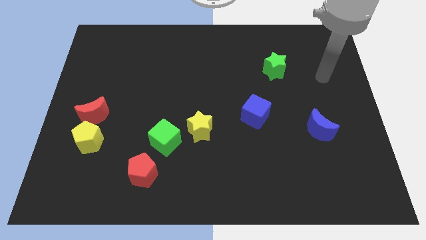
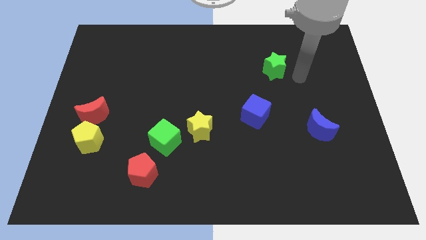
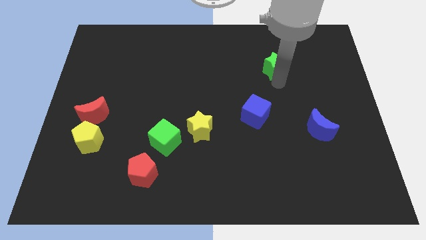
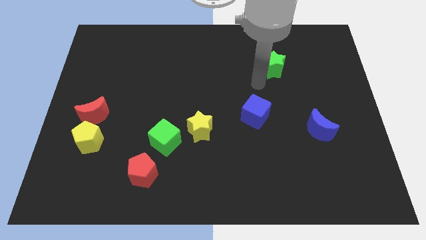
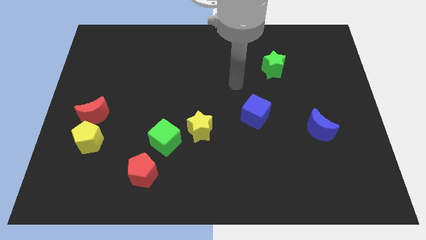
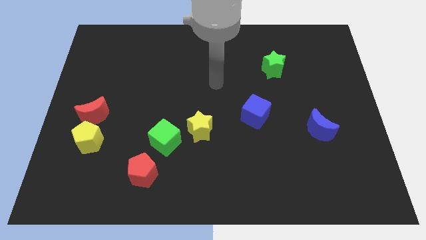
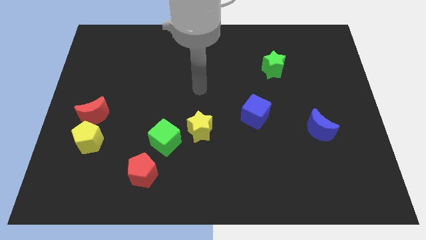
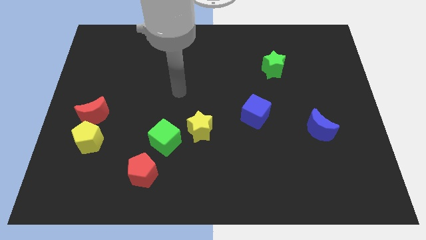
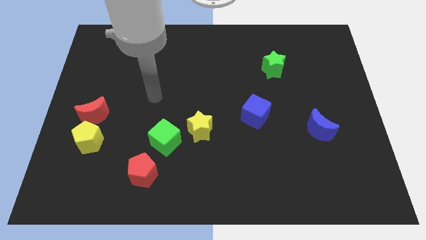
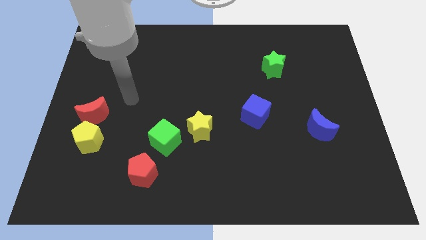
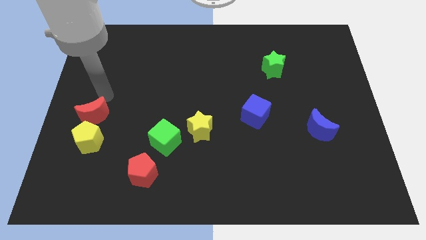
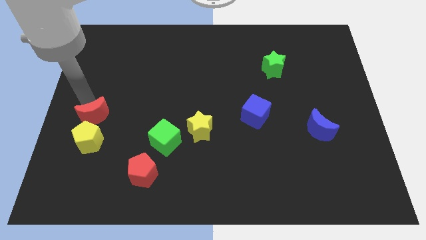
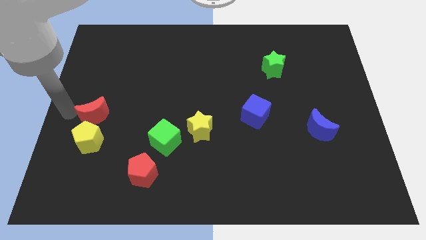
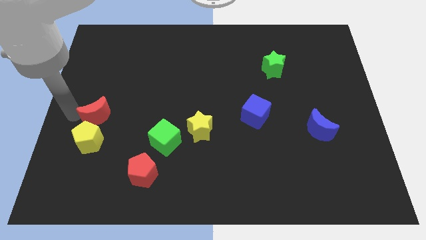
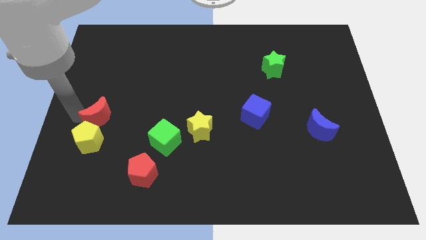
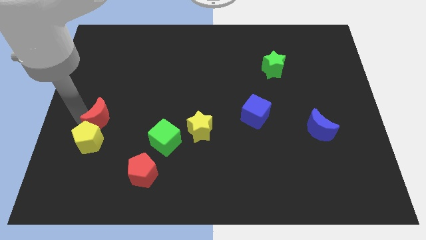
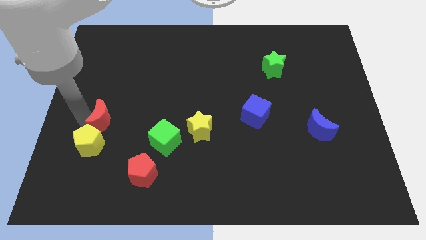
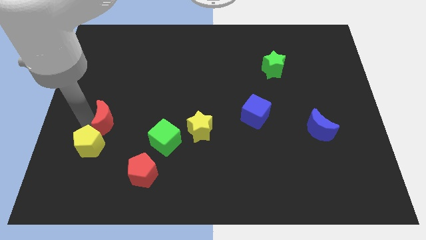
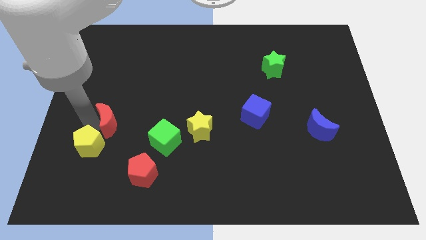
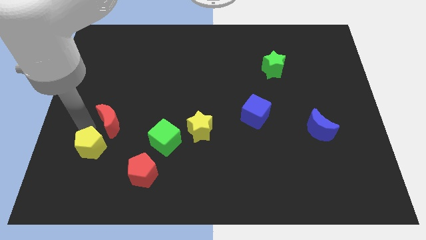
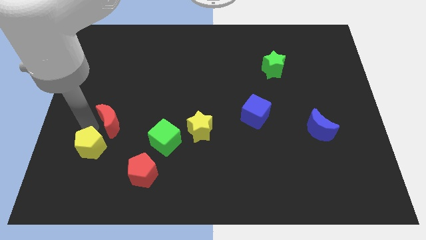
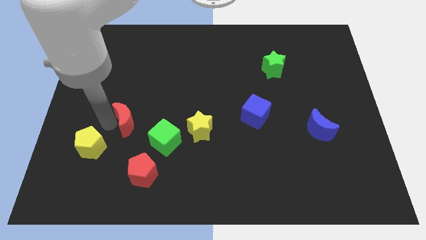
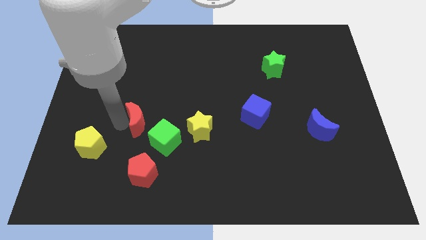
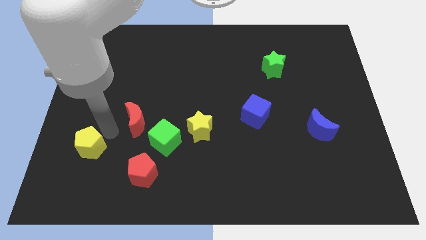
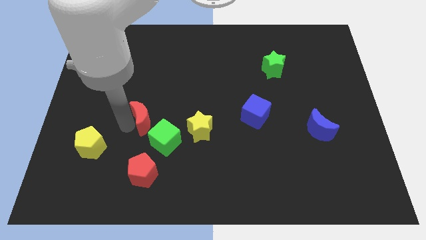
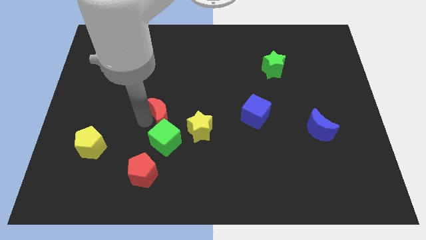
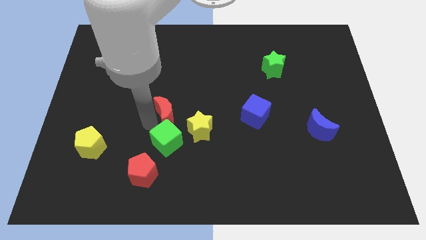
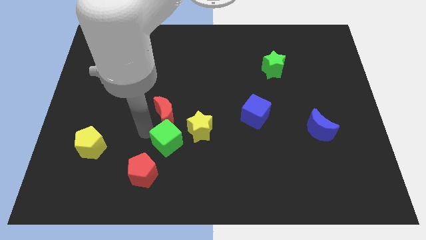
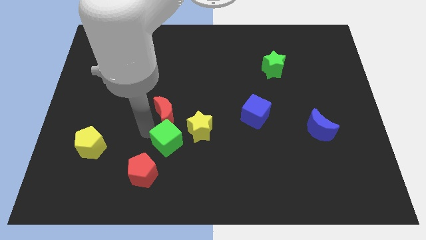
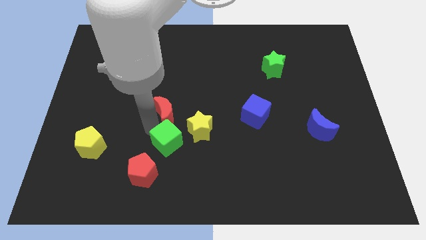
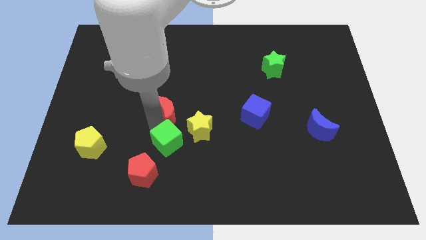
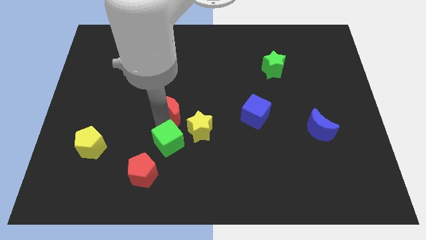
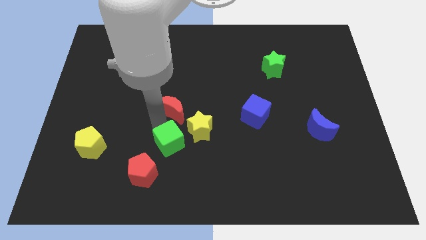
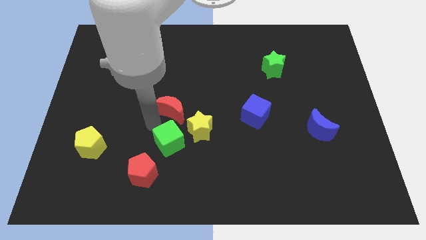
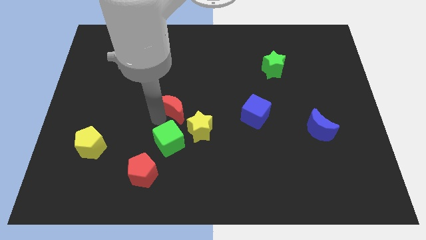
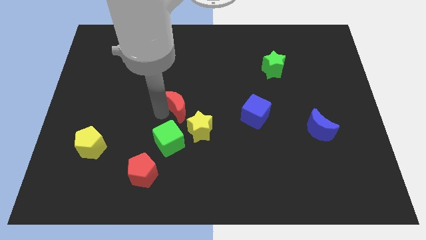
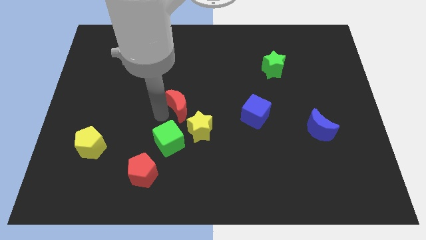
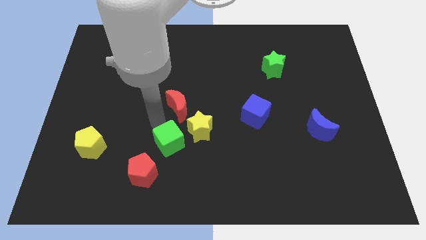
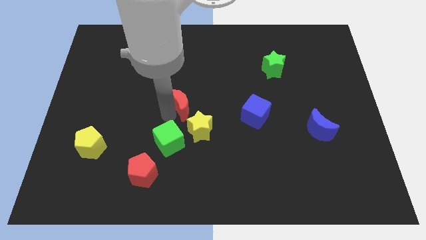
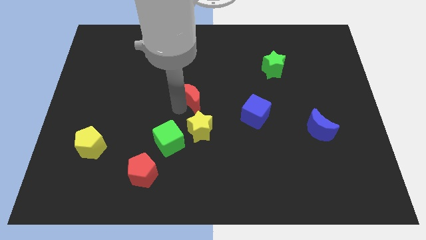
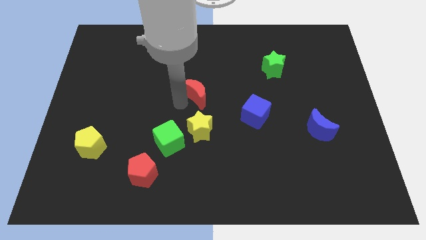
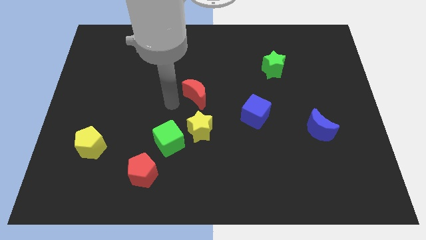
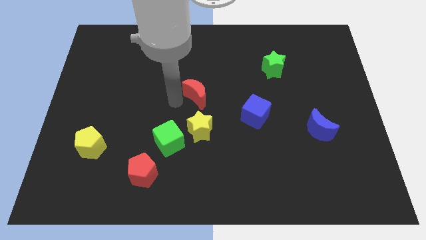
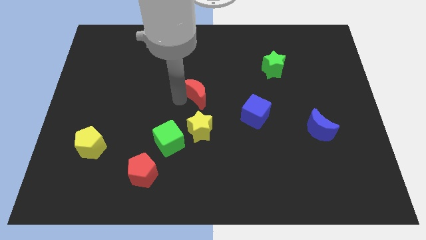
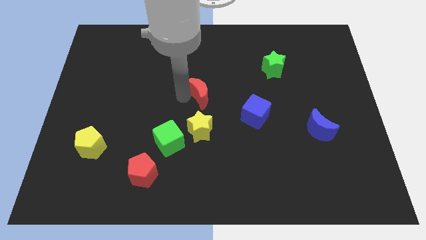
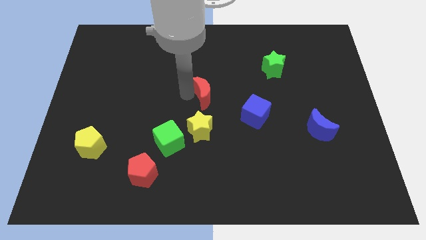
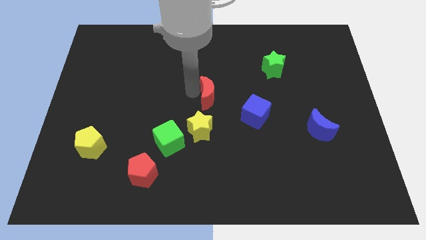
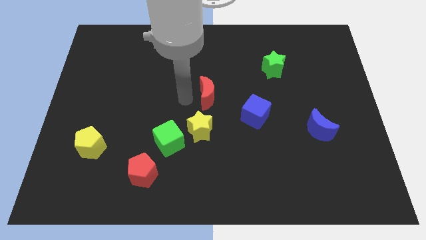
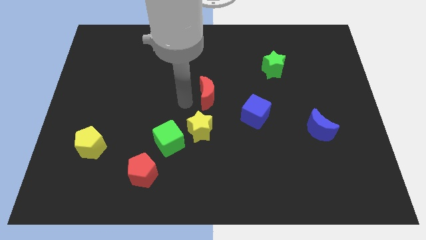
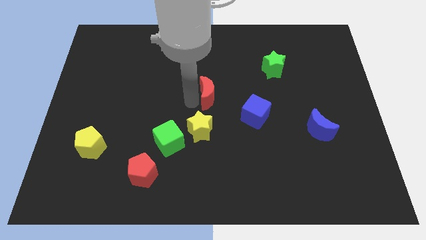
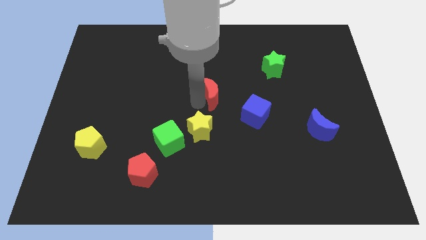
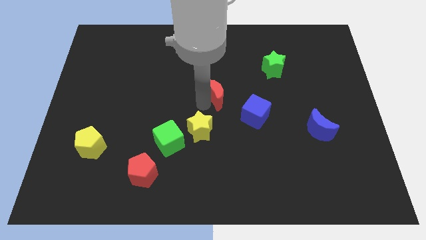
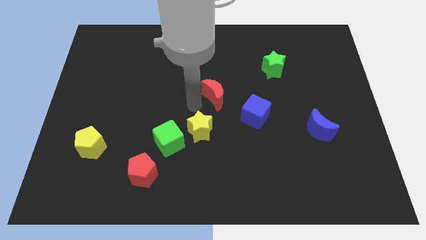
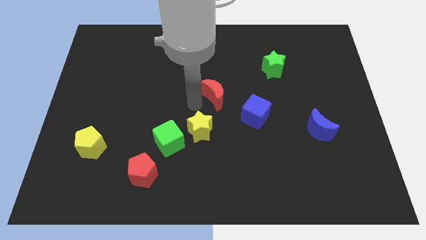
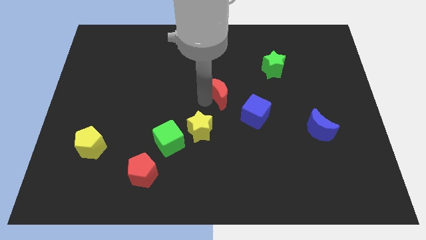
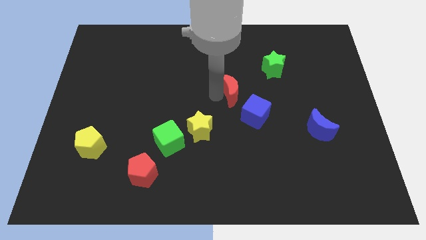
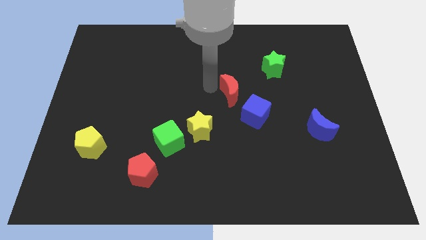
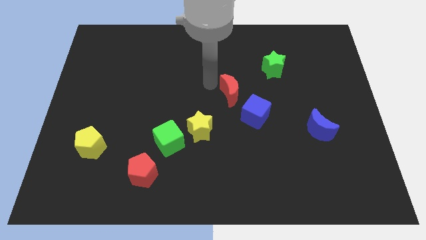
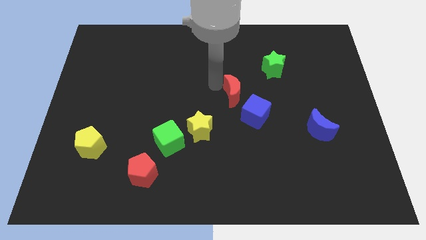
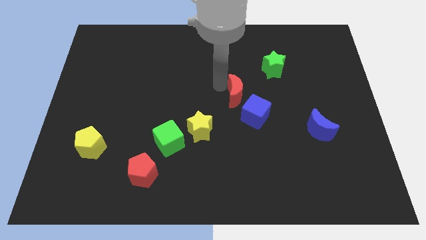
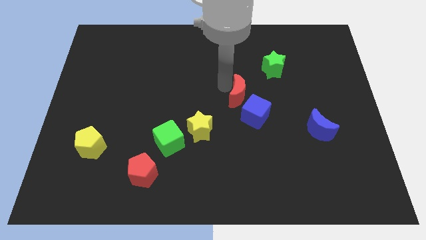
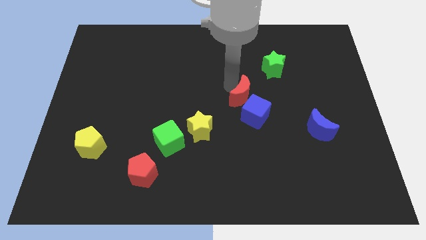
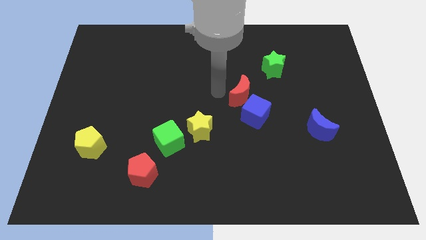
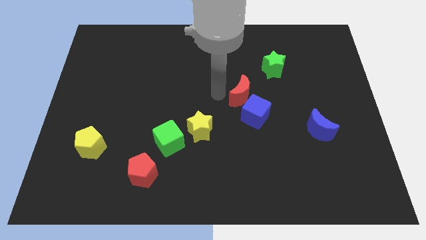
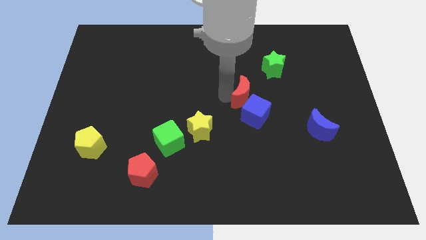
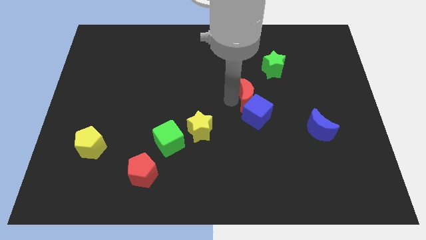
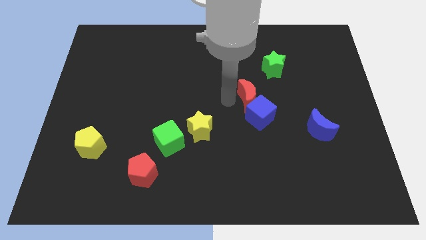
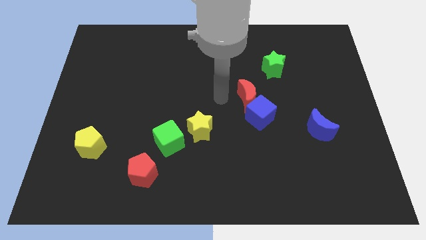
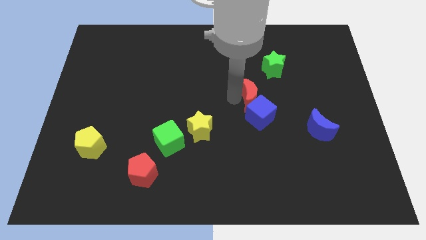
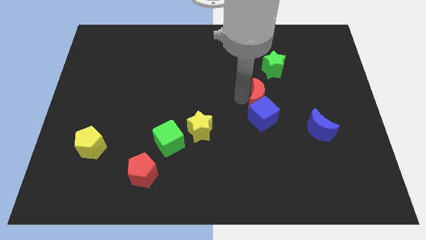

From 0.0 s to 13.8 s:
push the red moon to the top right of the blue cube

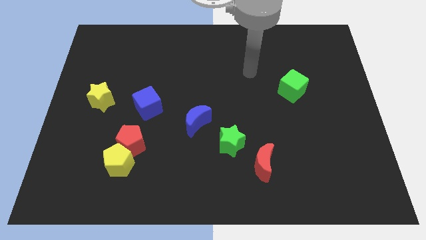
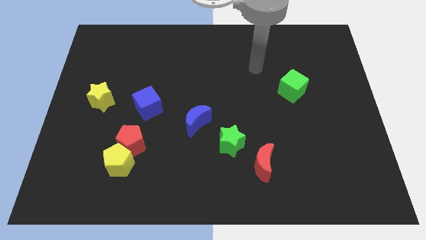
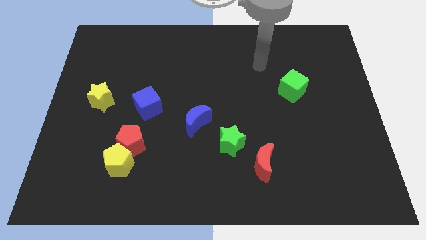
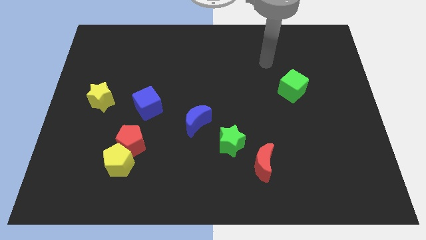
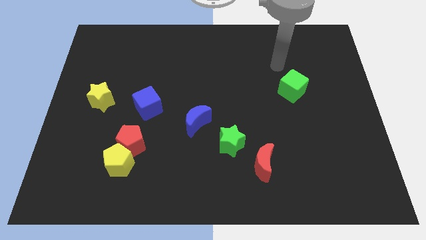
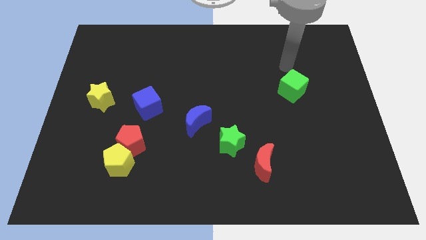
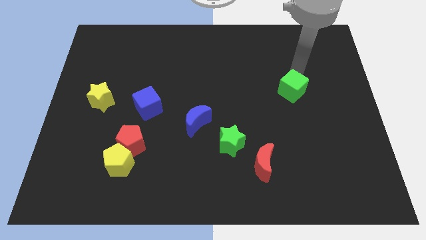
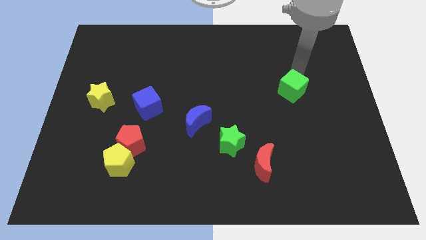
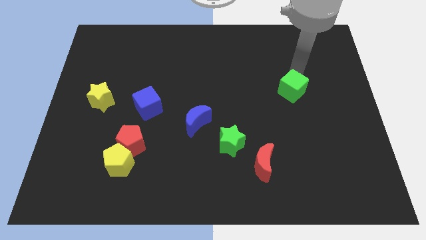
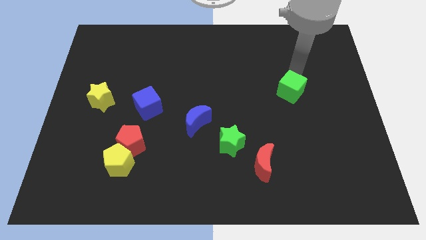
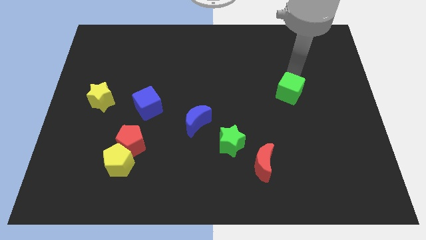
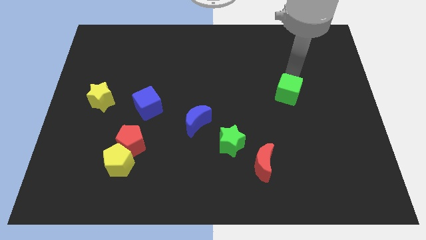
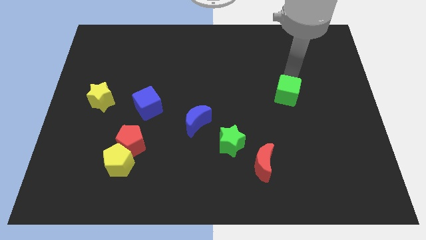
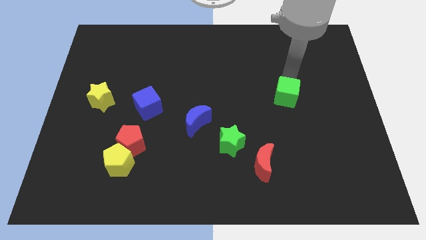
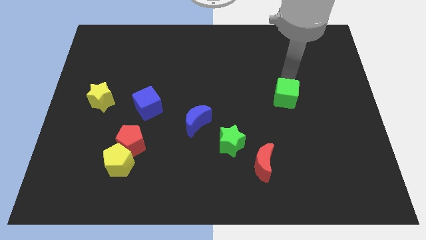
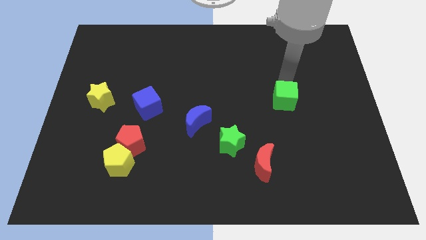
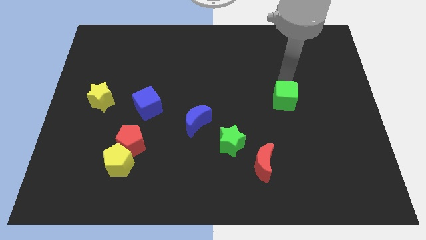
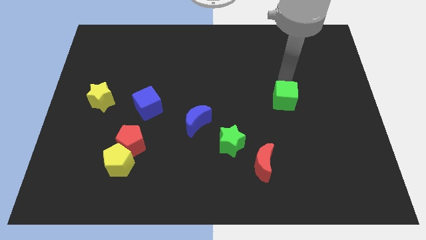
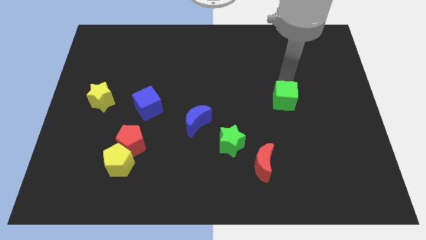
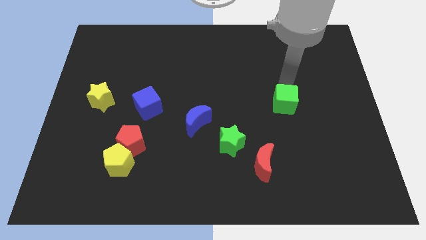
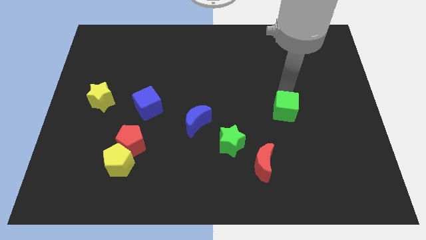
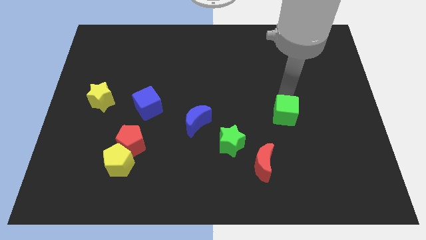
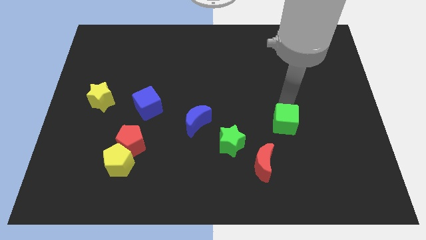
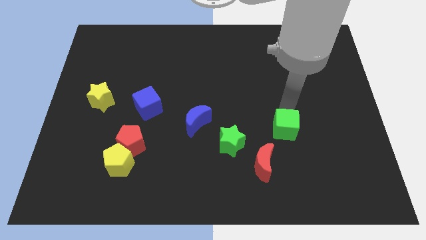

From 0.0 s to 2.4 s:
push the green cube to the right of the green star
